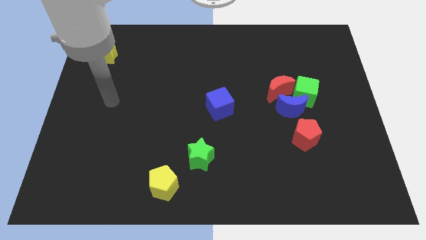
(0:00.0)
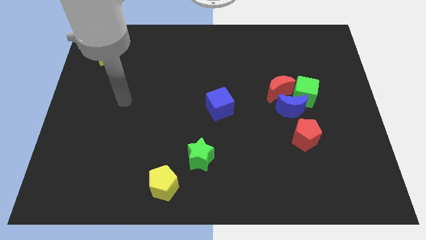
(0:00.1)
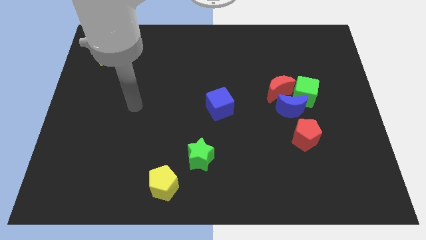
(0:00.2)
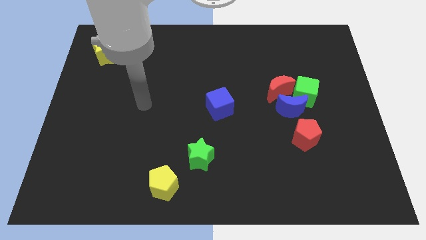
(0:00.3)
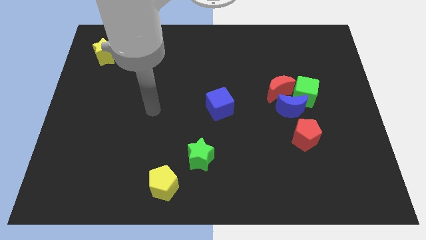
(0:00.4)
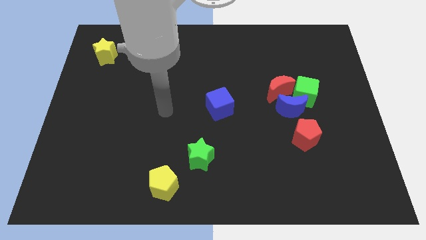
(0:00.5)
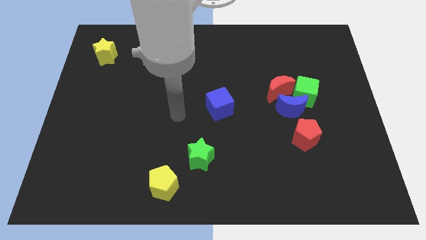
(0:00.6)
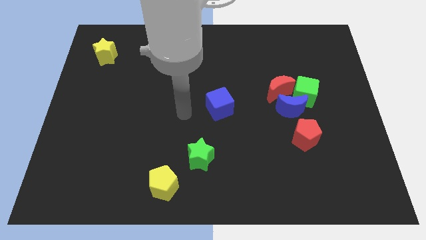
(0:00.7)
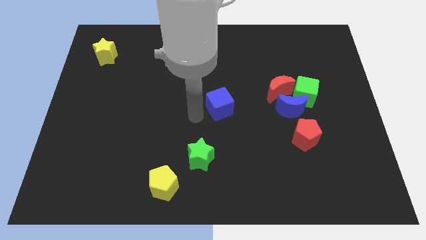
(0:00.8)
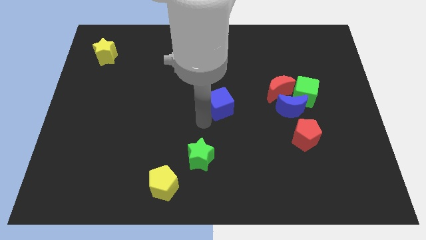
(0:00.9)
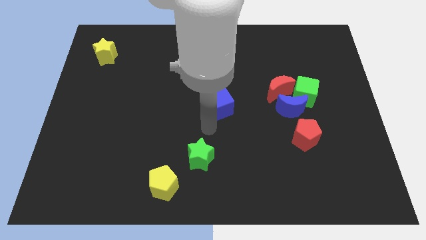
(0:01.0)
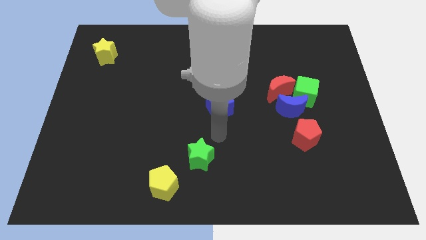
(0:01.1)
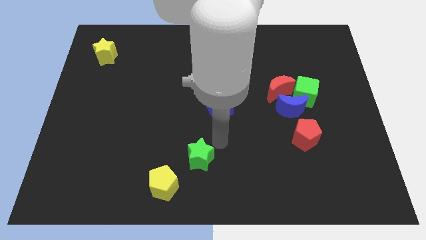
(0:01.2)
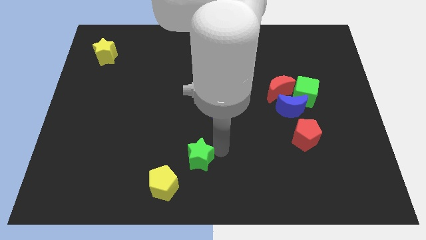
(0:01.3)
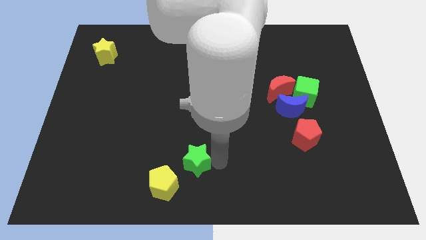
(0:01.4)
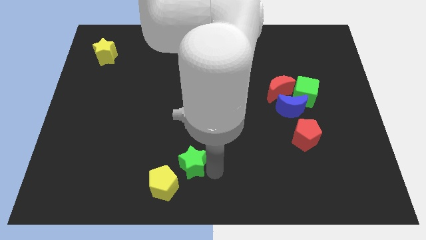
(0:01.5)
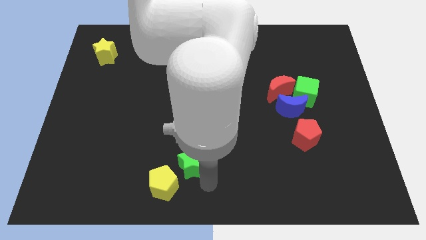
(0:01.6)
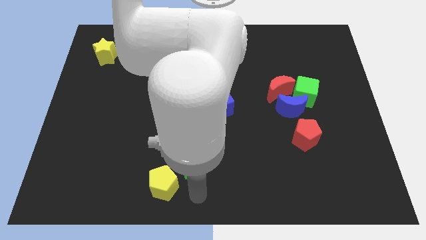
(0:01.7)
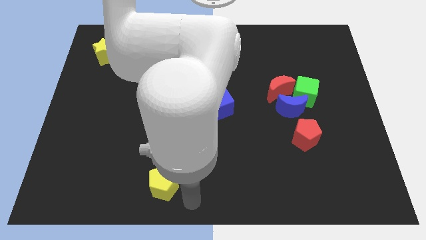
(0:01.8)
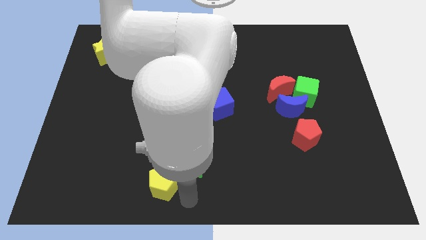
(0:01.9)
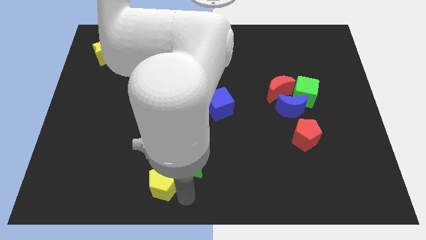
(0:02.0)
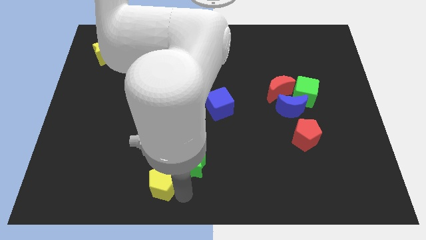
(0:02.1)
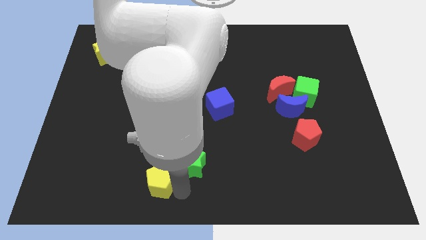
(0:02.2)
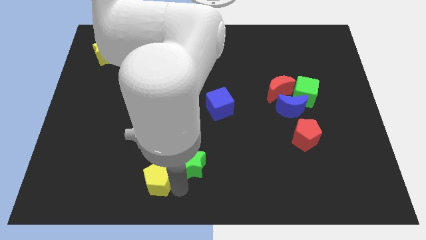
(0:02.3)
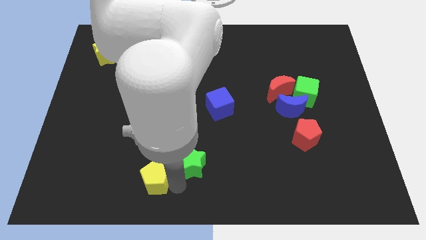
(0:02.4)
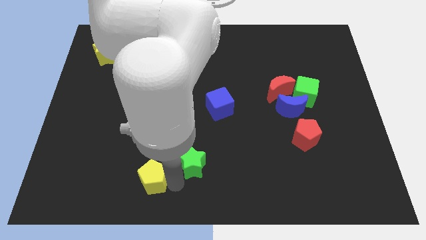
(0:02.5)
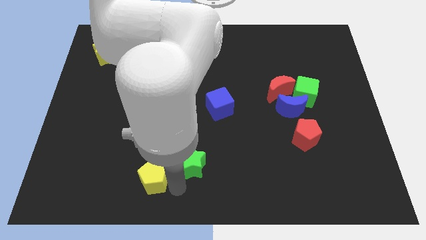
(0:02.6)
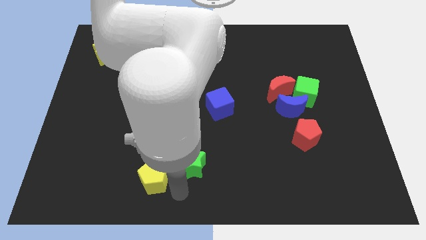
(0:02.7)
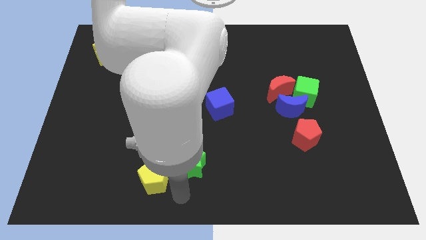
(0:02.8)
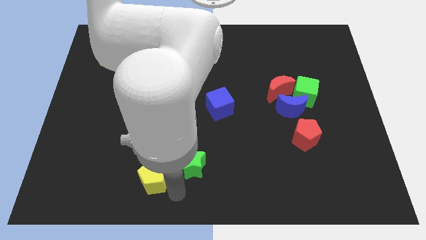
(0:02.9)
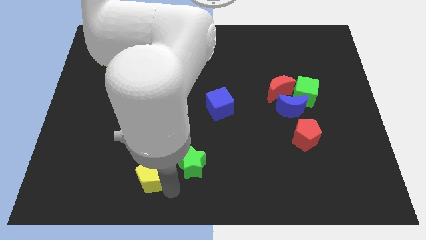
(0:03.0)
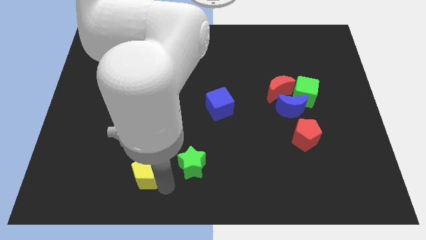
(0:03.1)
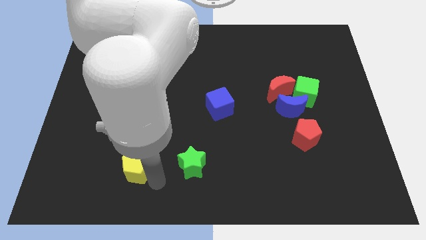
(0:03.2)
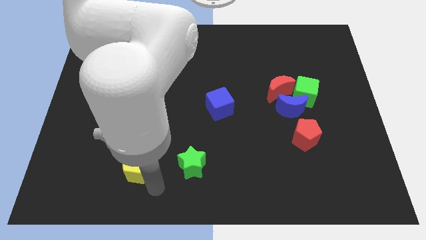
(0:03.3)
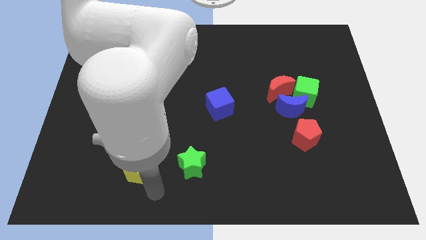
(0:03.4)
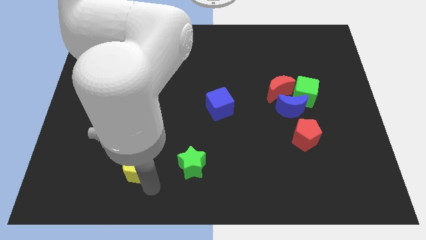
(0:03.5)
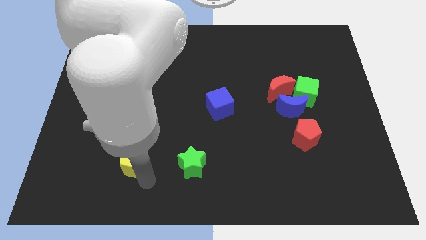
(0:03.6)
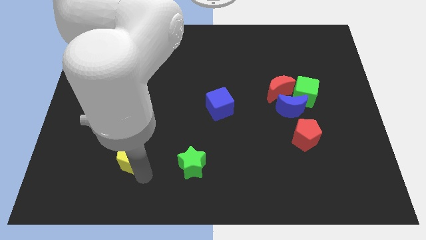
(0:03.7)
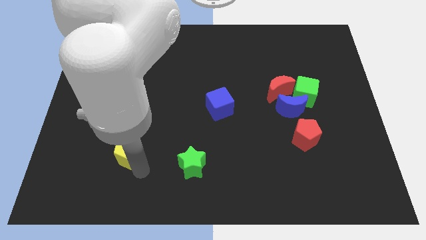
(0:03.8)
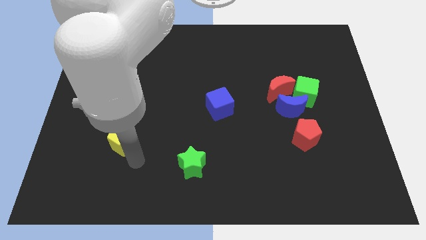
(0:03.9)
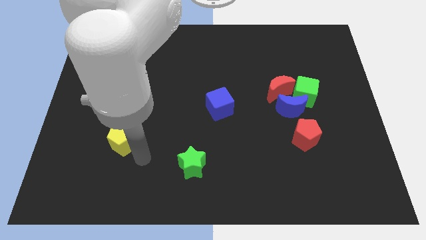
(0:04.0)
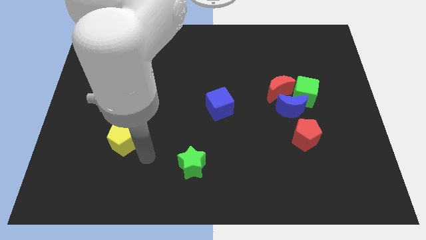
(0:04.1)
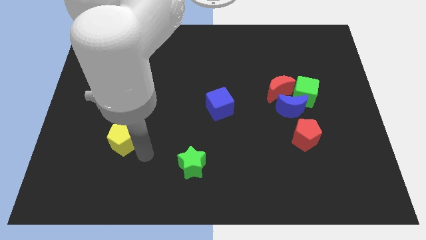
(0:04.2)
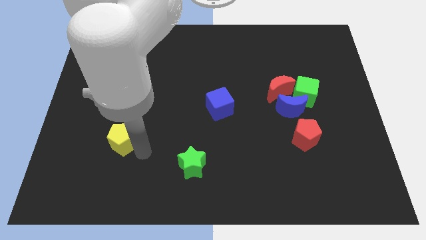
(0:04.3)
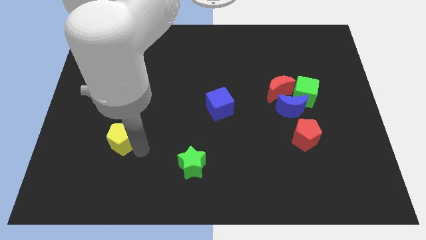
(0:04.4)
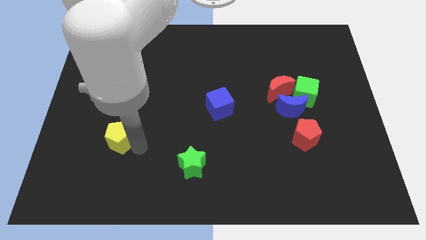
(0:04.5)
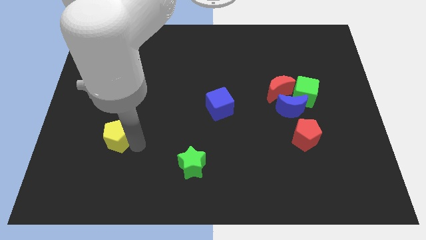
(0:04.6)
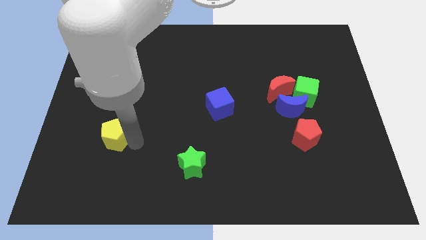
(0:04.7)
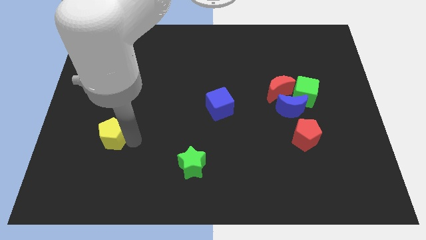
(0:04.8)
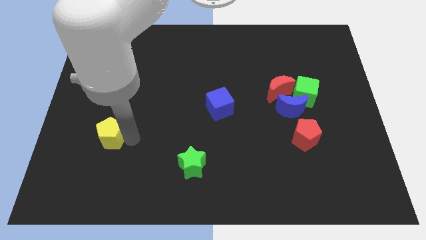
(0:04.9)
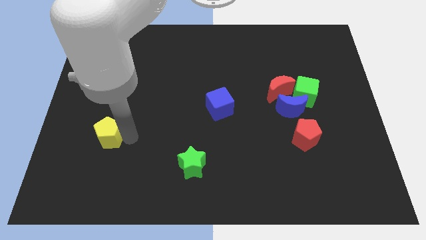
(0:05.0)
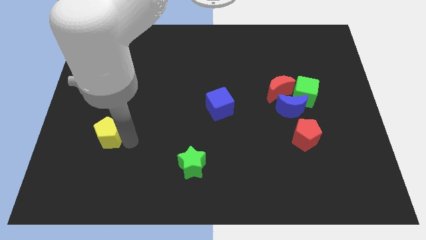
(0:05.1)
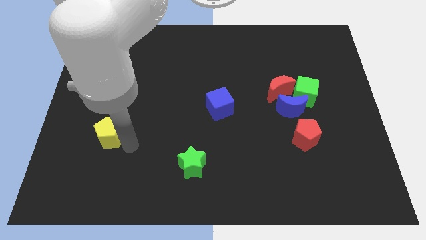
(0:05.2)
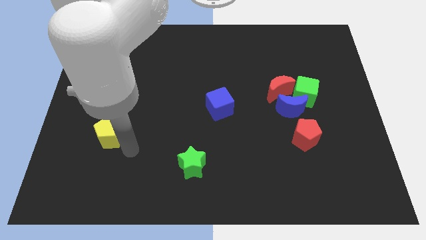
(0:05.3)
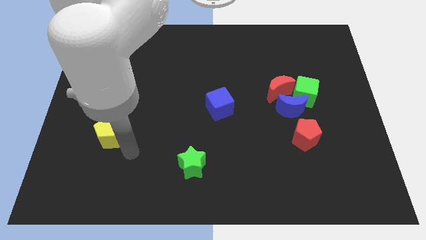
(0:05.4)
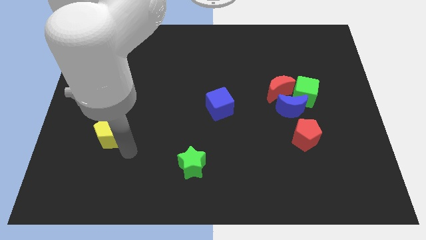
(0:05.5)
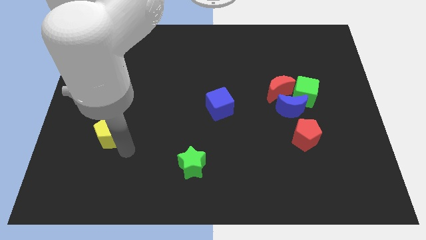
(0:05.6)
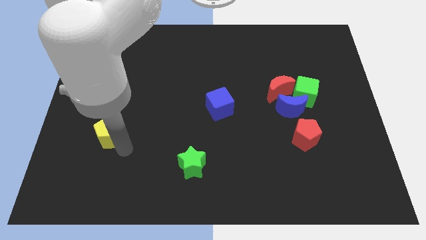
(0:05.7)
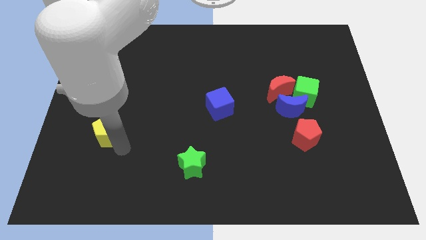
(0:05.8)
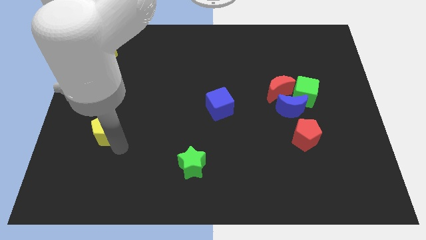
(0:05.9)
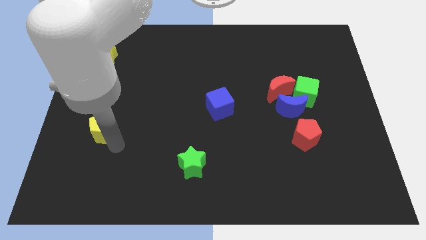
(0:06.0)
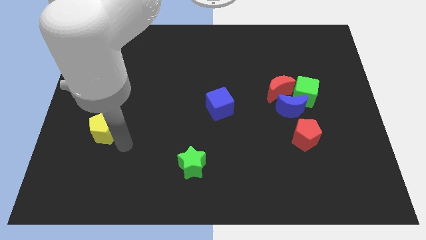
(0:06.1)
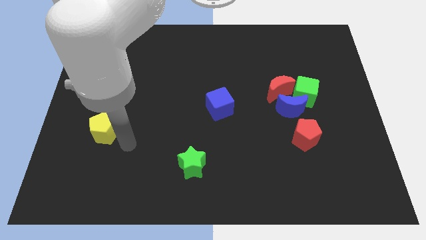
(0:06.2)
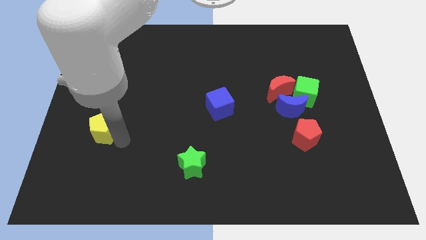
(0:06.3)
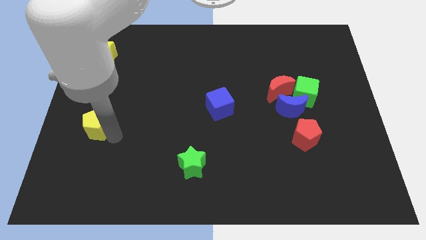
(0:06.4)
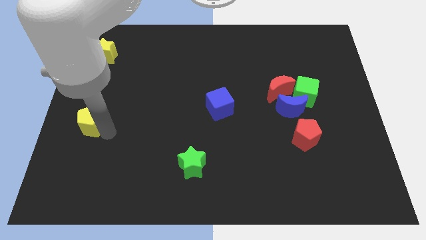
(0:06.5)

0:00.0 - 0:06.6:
push the yellow pentagon to the left side of the board
